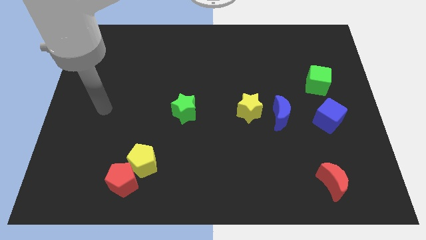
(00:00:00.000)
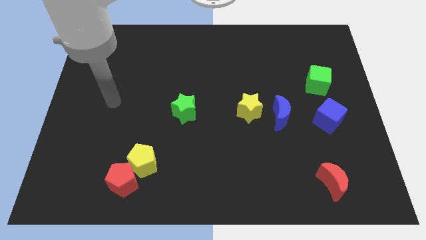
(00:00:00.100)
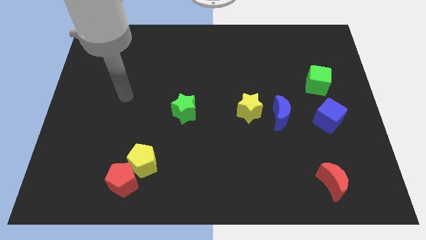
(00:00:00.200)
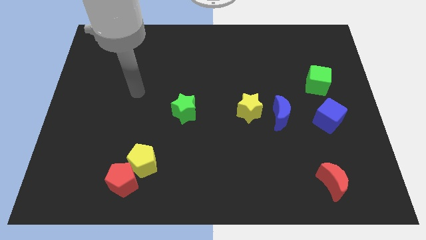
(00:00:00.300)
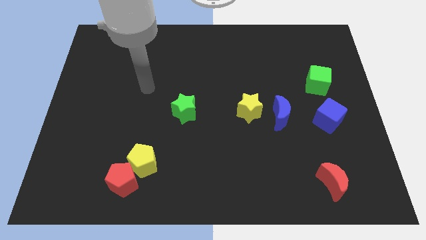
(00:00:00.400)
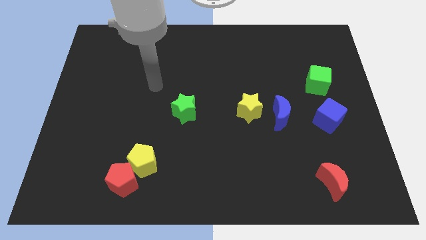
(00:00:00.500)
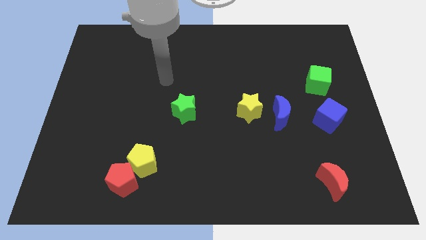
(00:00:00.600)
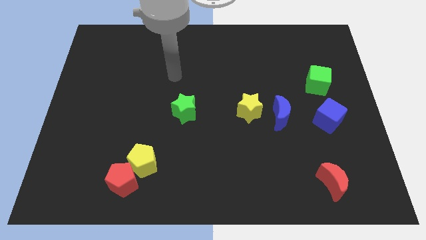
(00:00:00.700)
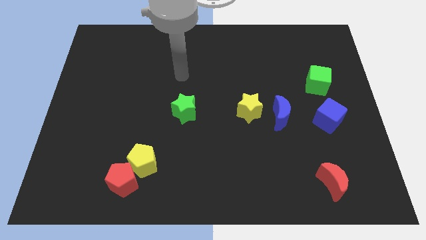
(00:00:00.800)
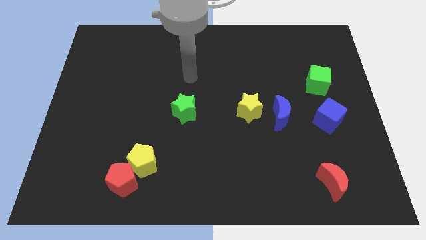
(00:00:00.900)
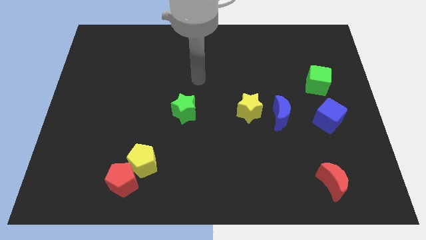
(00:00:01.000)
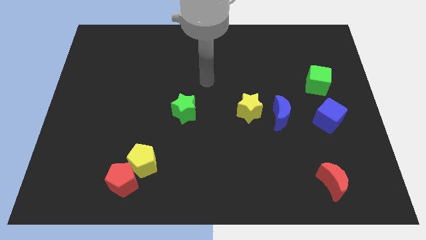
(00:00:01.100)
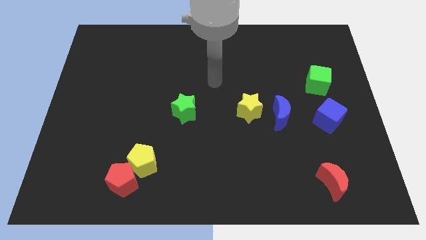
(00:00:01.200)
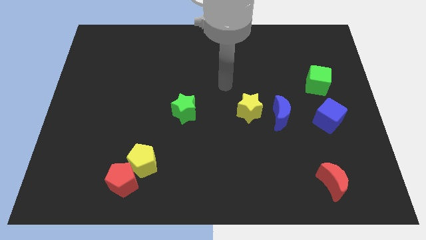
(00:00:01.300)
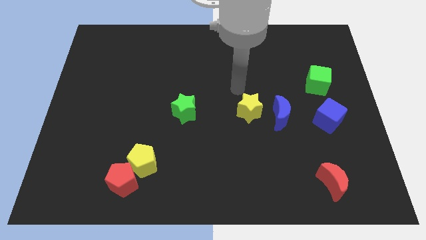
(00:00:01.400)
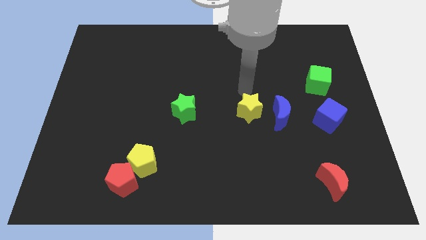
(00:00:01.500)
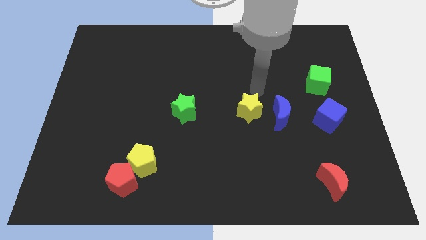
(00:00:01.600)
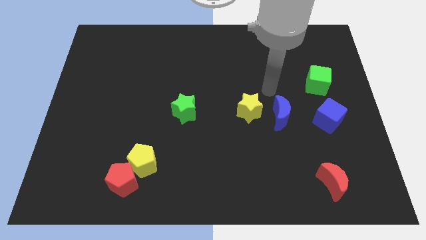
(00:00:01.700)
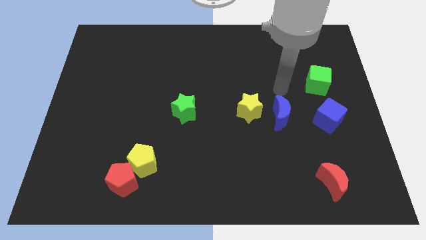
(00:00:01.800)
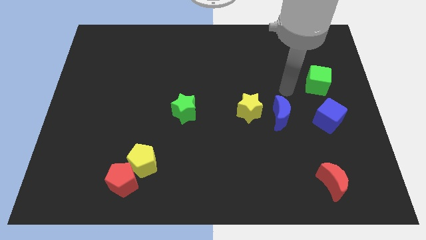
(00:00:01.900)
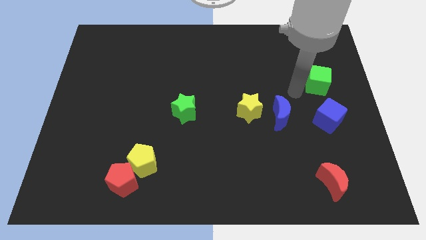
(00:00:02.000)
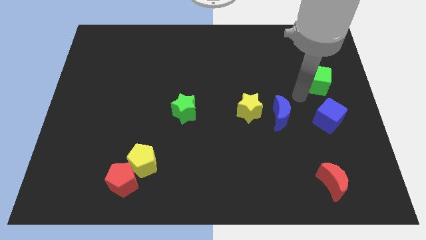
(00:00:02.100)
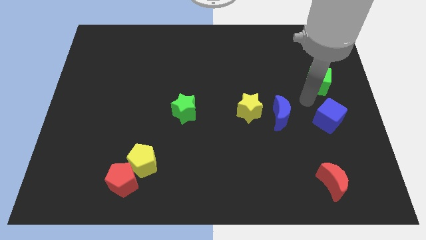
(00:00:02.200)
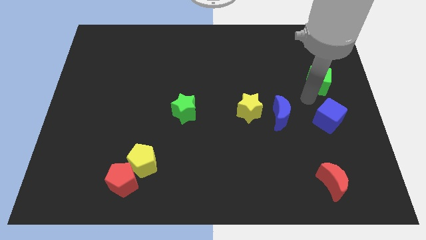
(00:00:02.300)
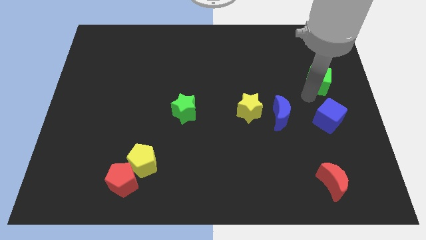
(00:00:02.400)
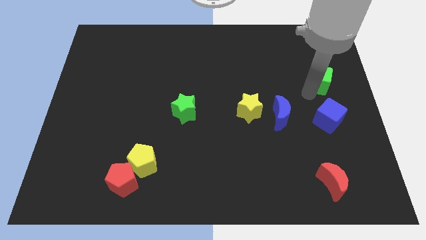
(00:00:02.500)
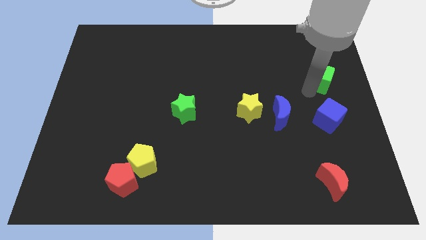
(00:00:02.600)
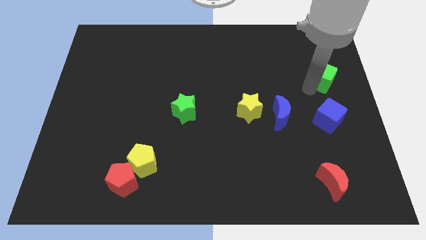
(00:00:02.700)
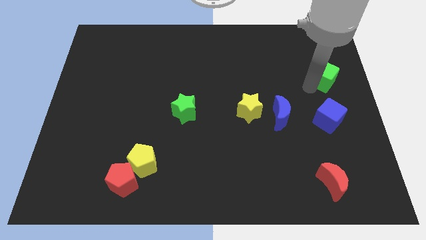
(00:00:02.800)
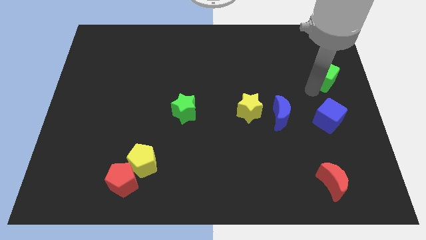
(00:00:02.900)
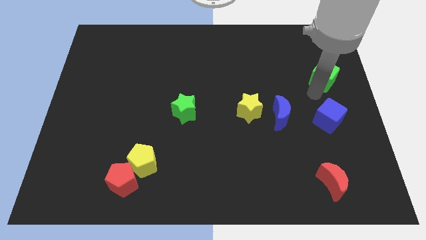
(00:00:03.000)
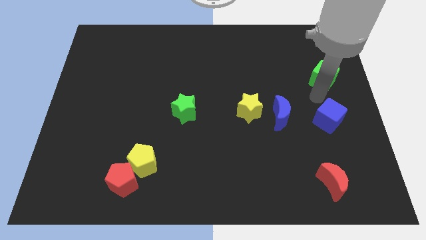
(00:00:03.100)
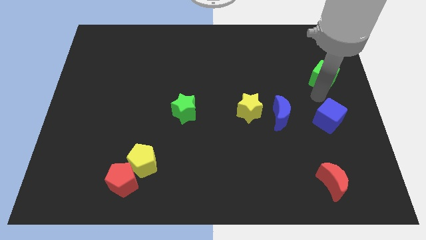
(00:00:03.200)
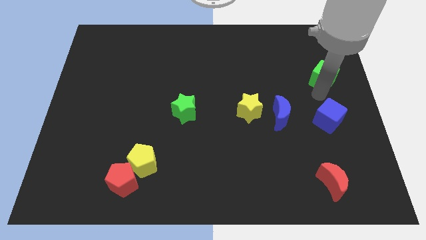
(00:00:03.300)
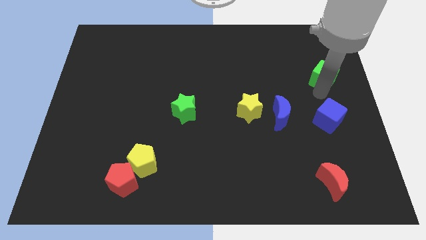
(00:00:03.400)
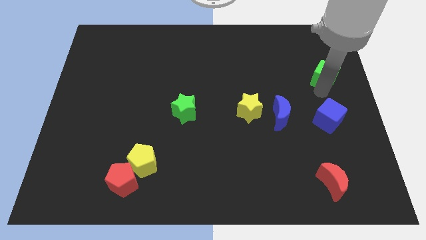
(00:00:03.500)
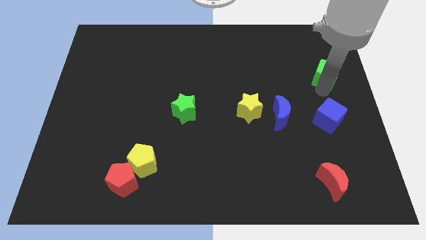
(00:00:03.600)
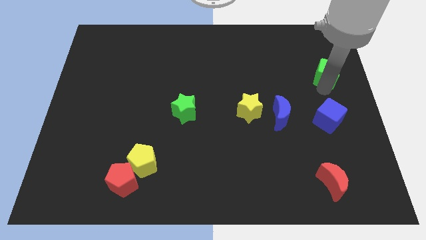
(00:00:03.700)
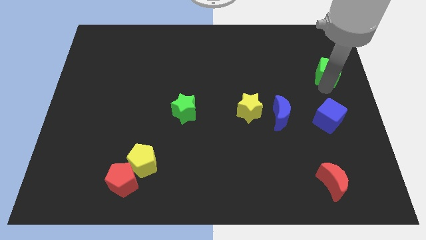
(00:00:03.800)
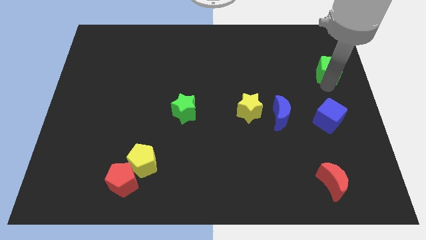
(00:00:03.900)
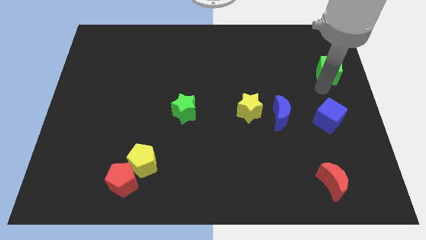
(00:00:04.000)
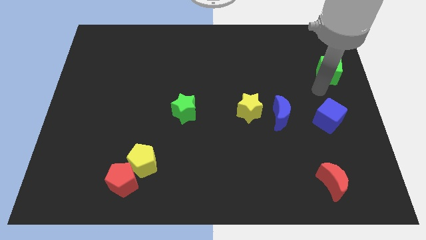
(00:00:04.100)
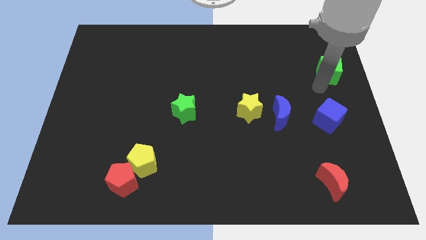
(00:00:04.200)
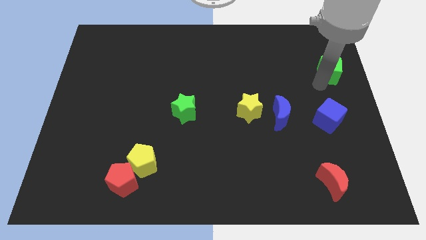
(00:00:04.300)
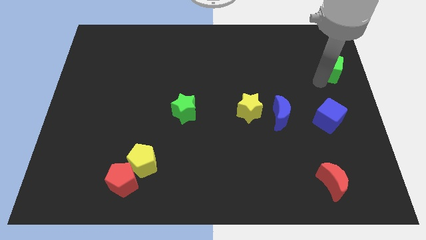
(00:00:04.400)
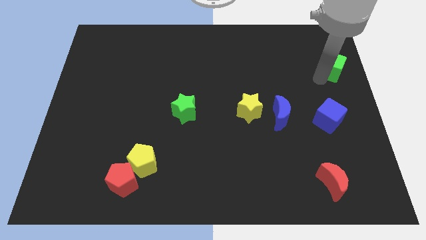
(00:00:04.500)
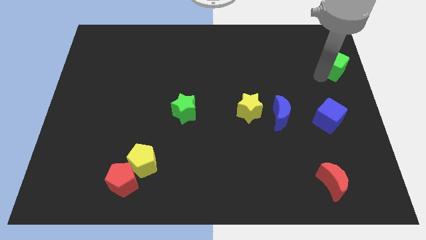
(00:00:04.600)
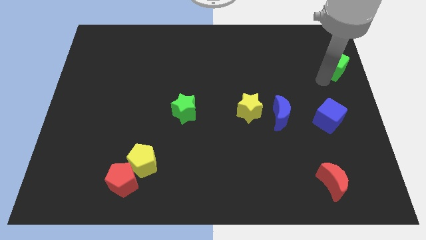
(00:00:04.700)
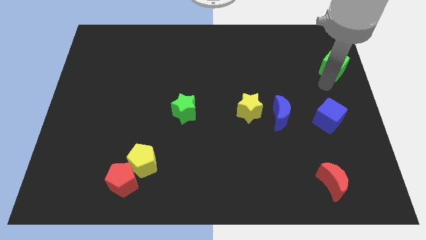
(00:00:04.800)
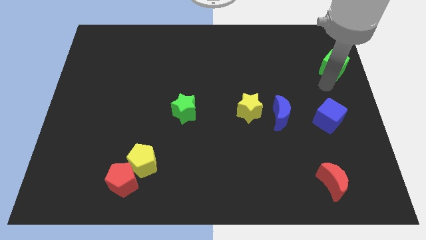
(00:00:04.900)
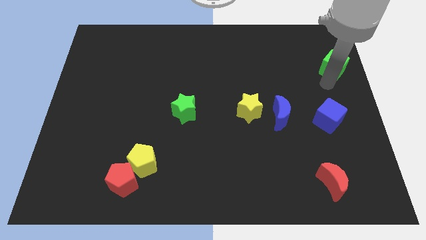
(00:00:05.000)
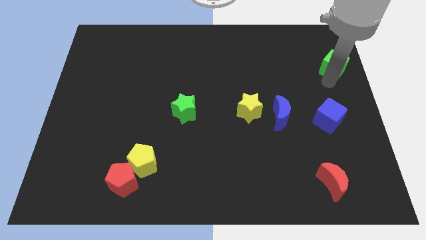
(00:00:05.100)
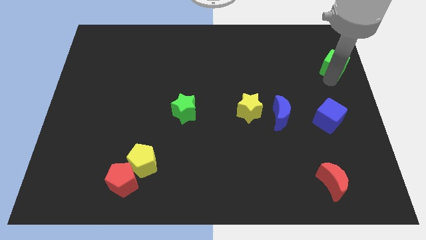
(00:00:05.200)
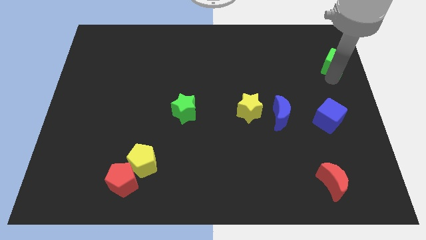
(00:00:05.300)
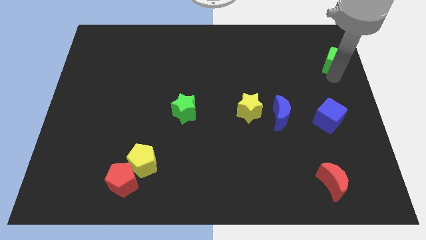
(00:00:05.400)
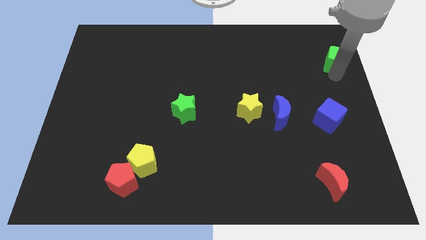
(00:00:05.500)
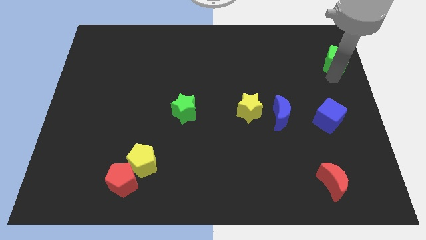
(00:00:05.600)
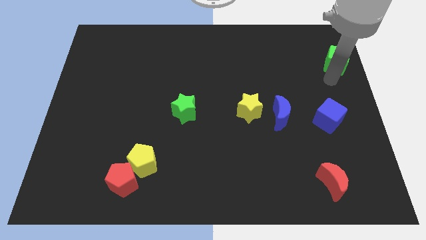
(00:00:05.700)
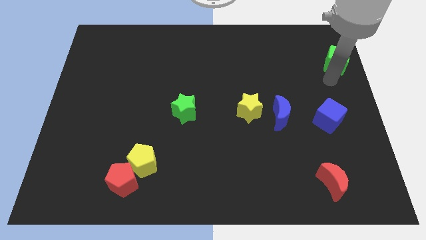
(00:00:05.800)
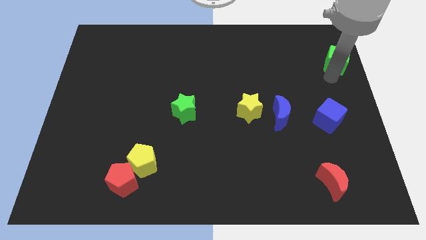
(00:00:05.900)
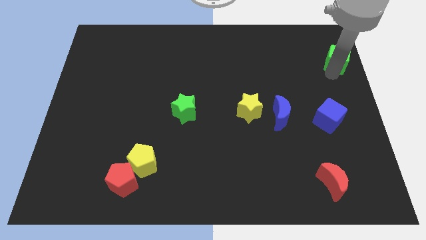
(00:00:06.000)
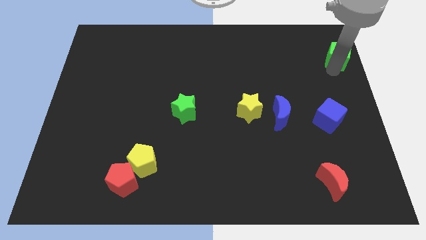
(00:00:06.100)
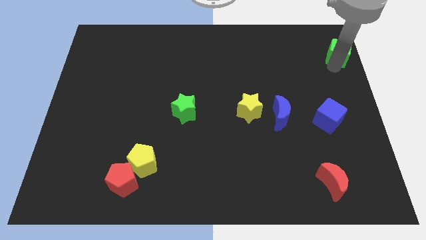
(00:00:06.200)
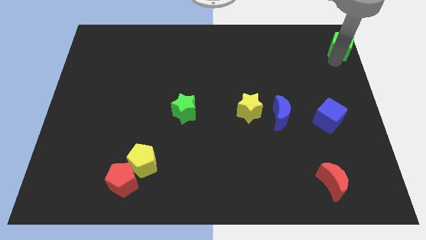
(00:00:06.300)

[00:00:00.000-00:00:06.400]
slide the green cube to the upper right corner
